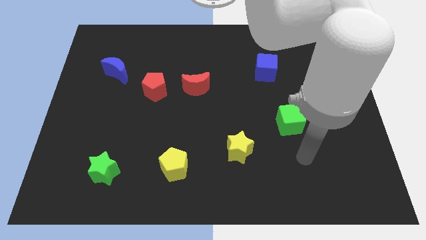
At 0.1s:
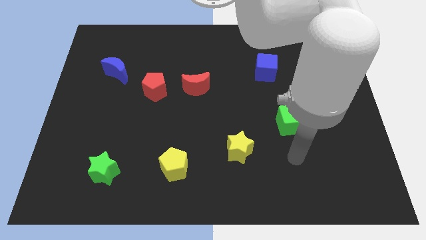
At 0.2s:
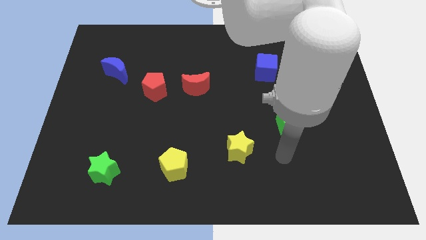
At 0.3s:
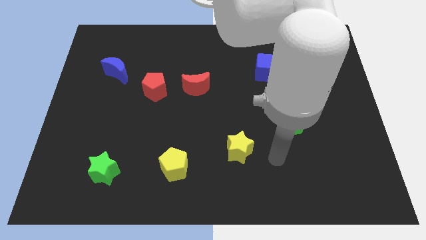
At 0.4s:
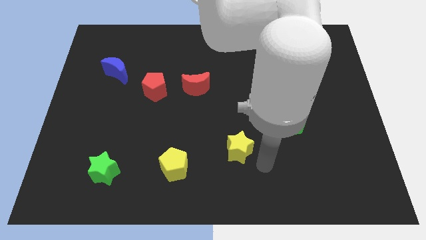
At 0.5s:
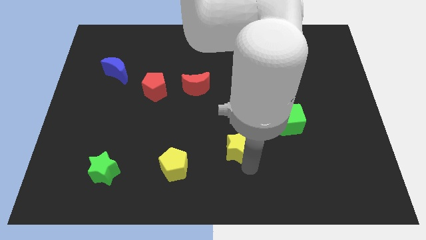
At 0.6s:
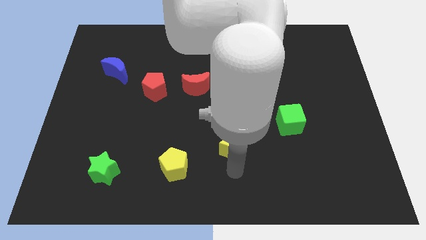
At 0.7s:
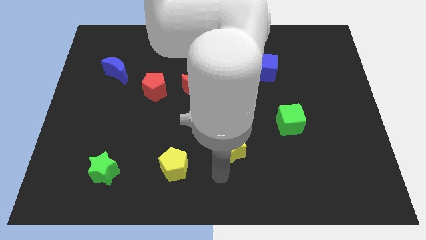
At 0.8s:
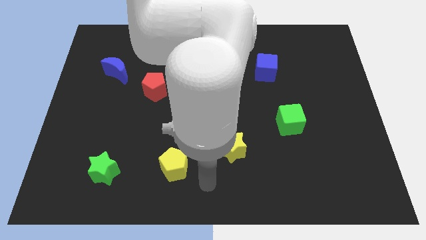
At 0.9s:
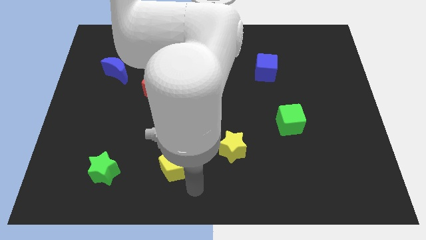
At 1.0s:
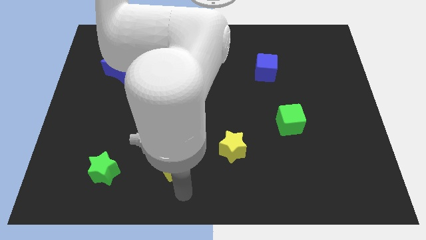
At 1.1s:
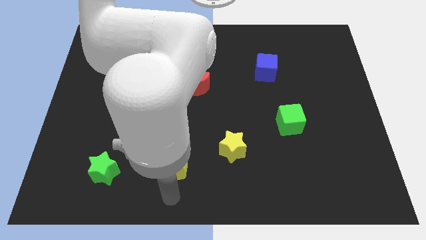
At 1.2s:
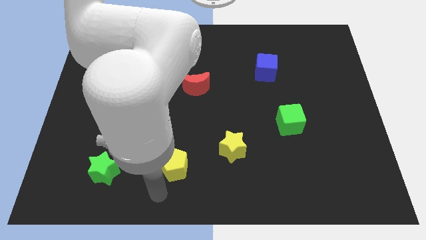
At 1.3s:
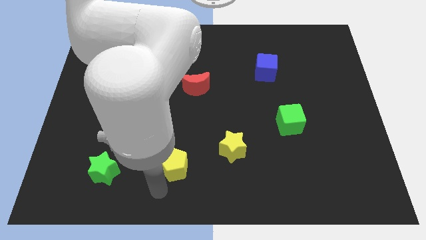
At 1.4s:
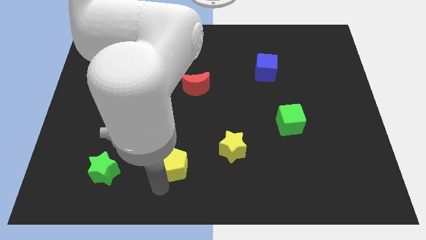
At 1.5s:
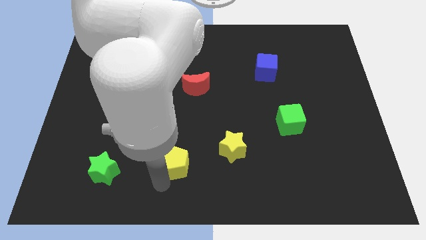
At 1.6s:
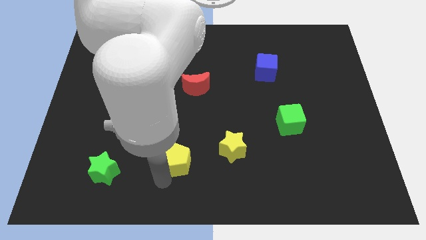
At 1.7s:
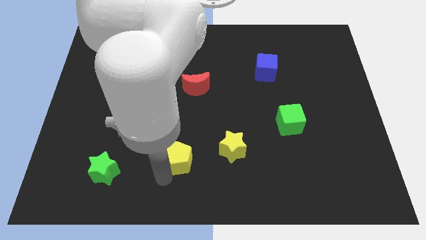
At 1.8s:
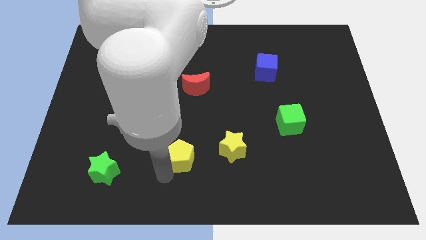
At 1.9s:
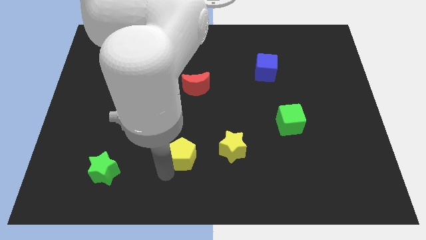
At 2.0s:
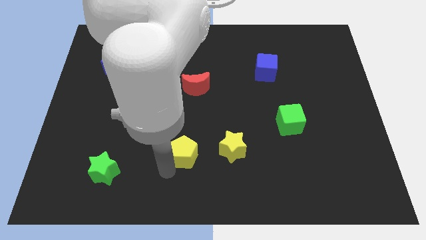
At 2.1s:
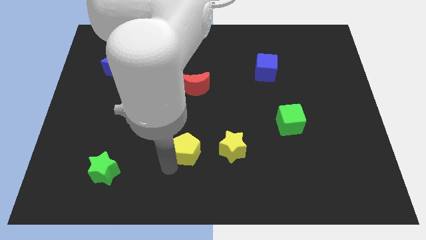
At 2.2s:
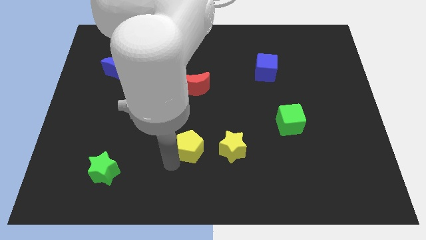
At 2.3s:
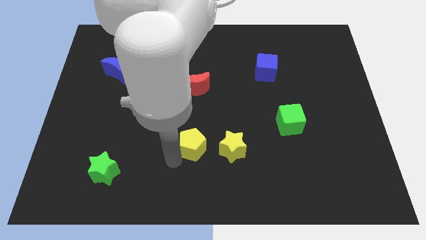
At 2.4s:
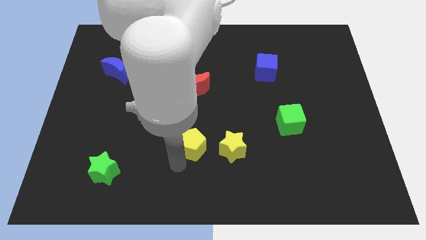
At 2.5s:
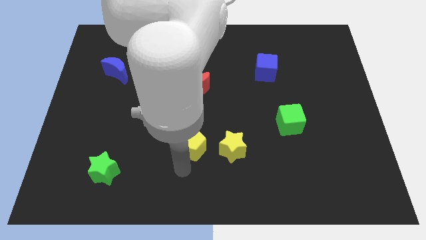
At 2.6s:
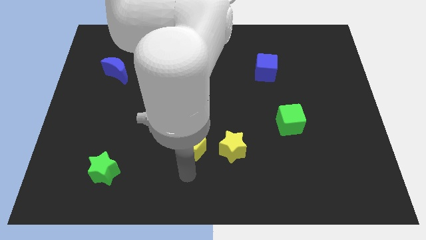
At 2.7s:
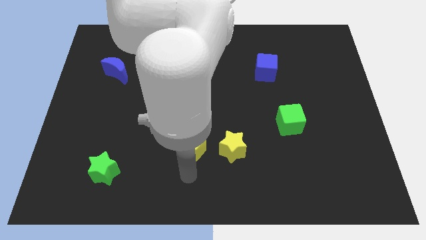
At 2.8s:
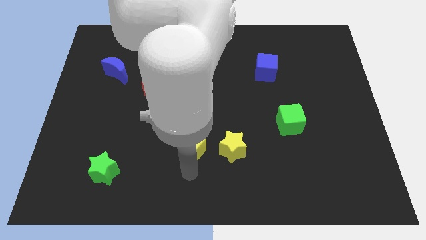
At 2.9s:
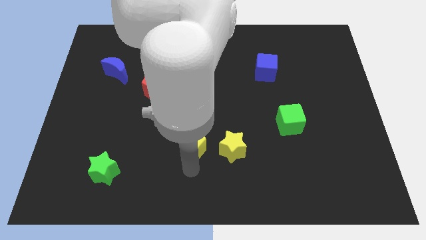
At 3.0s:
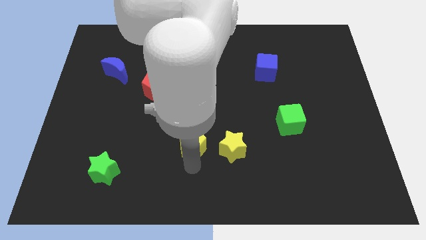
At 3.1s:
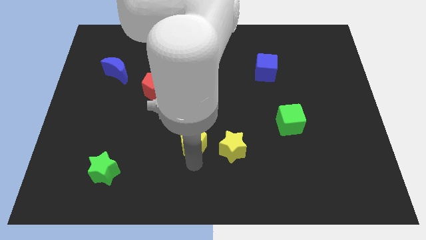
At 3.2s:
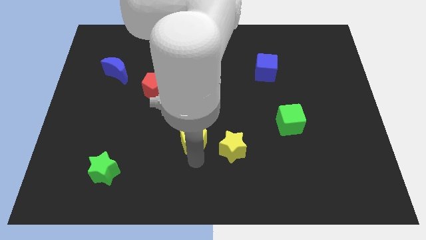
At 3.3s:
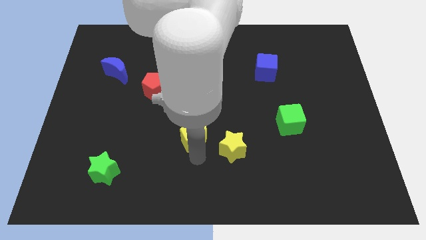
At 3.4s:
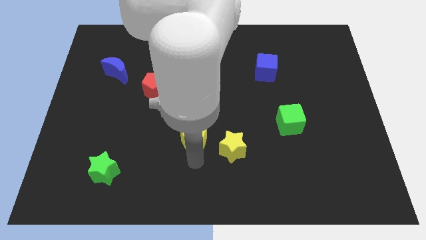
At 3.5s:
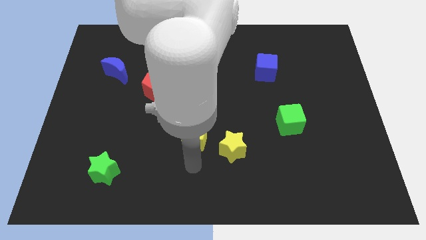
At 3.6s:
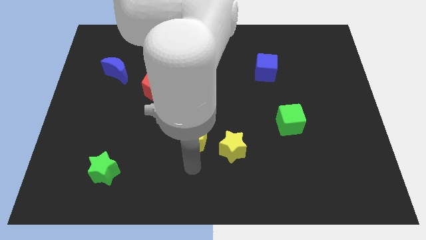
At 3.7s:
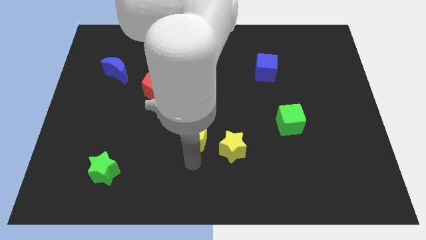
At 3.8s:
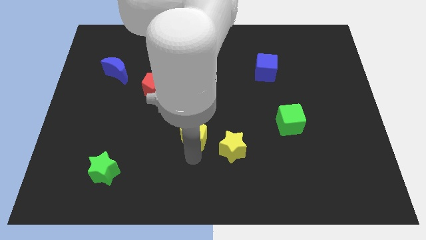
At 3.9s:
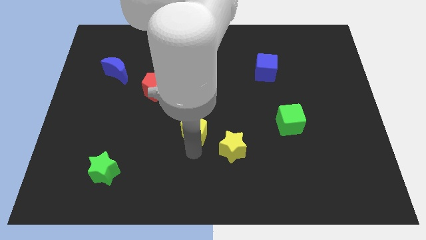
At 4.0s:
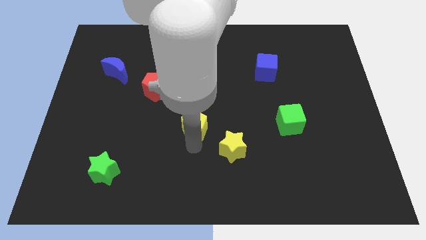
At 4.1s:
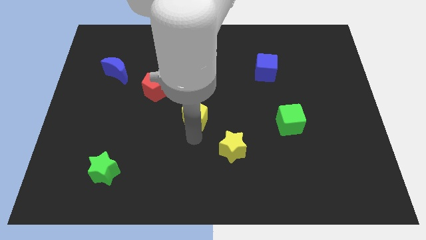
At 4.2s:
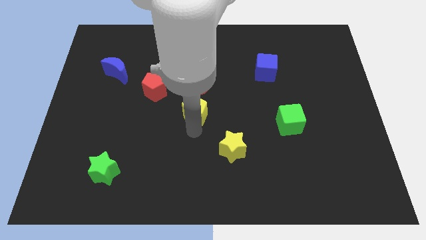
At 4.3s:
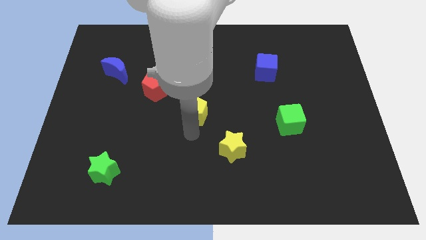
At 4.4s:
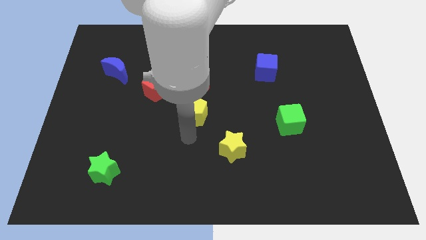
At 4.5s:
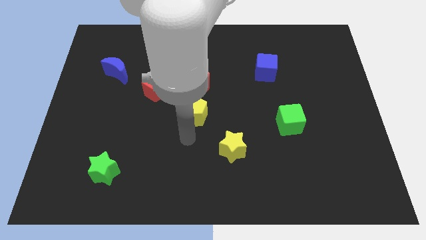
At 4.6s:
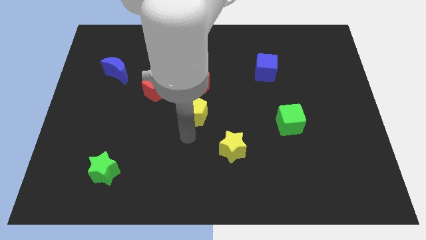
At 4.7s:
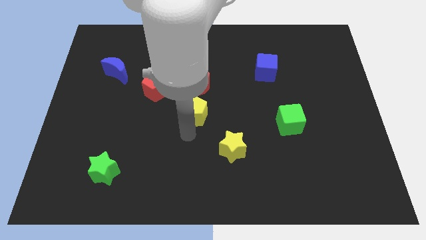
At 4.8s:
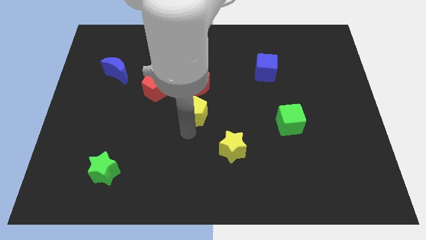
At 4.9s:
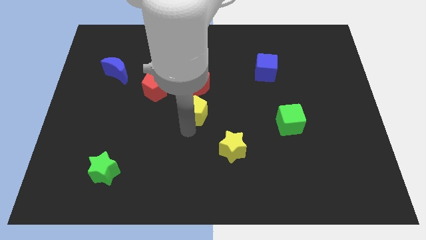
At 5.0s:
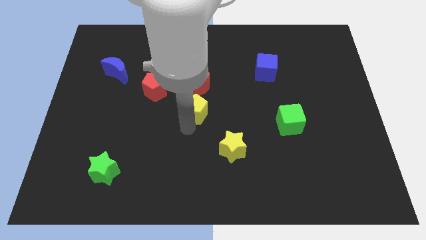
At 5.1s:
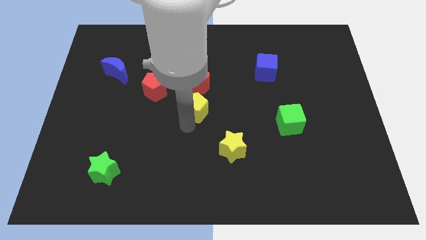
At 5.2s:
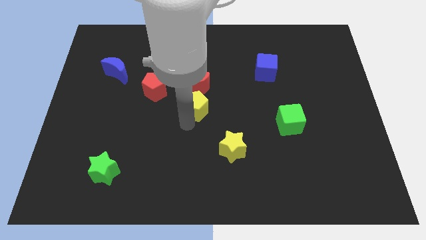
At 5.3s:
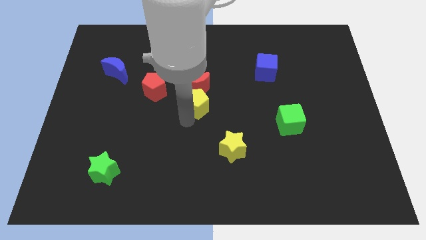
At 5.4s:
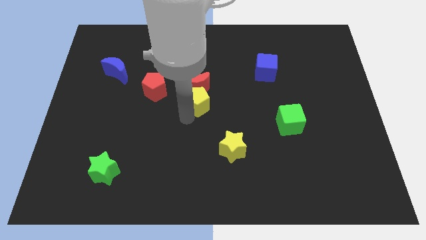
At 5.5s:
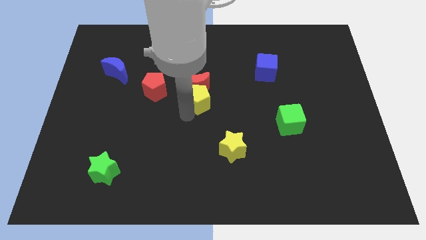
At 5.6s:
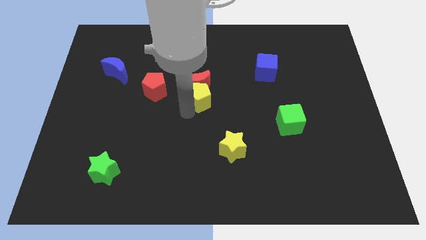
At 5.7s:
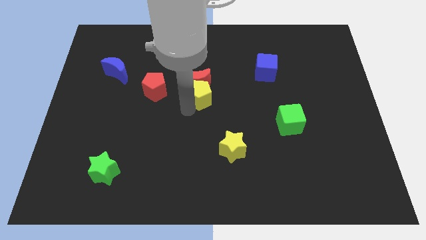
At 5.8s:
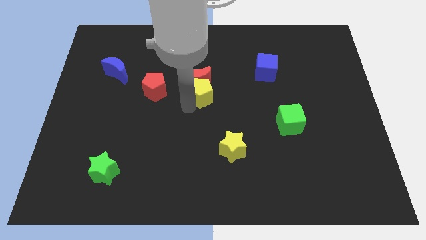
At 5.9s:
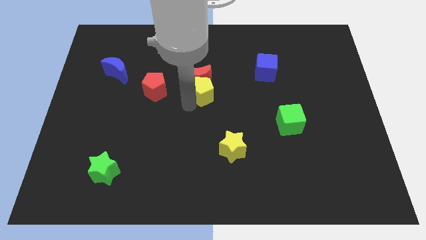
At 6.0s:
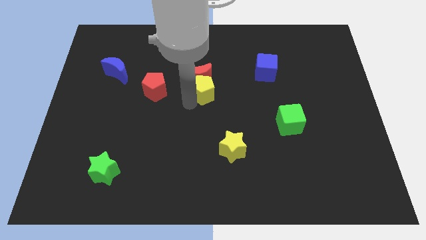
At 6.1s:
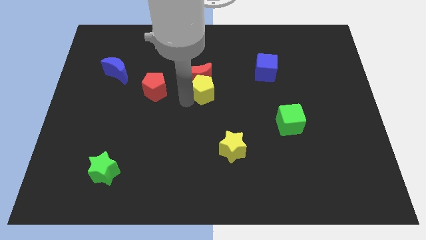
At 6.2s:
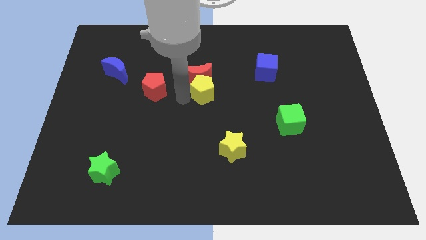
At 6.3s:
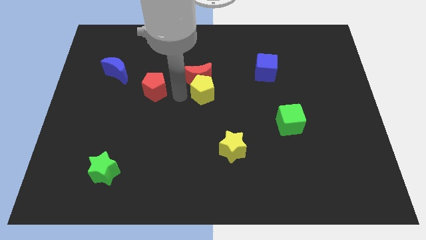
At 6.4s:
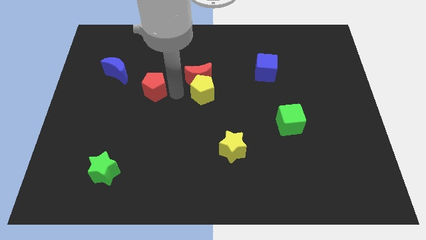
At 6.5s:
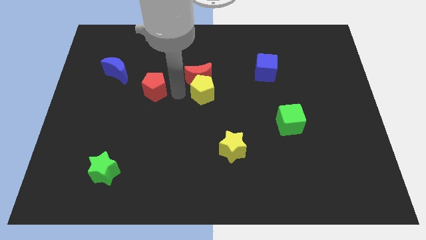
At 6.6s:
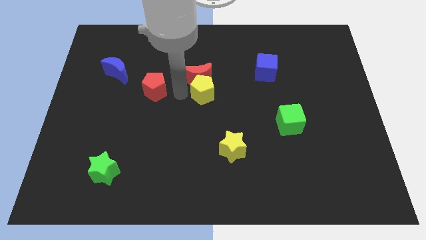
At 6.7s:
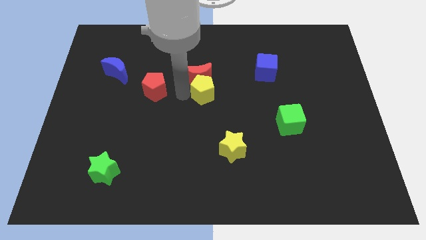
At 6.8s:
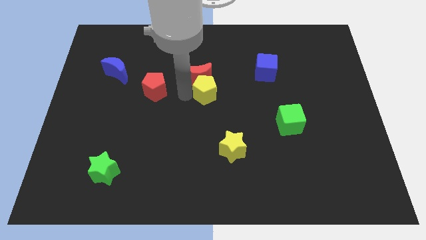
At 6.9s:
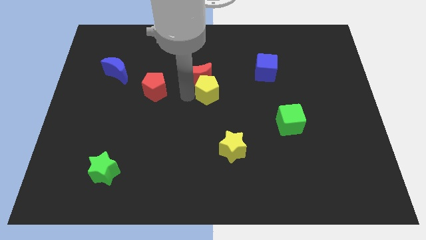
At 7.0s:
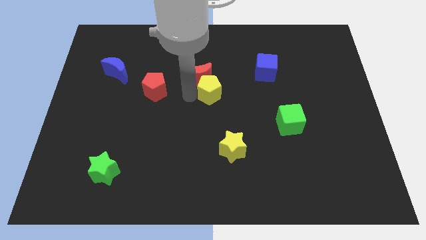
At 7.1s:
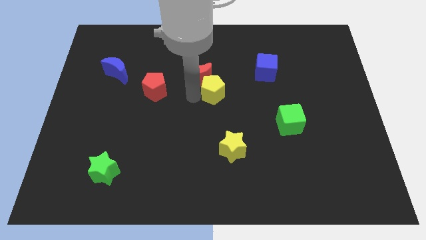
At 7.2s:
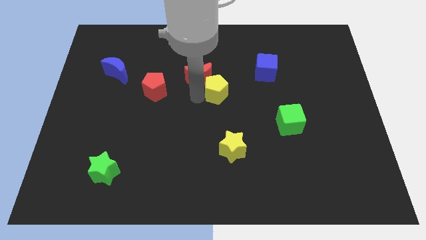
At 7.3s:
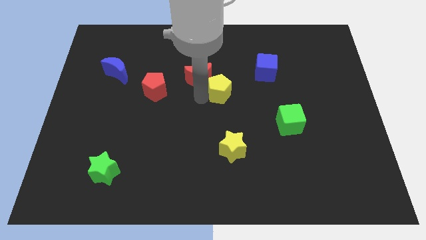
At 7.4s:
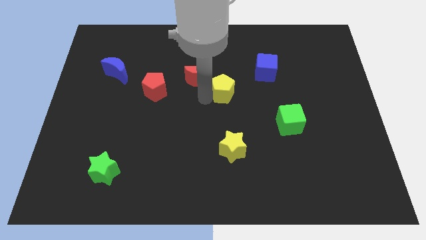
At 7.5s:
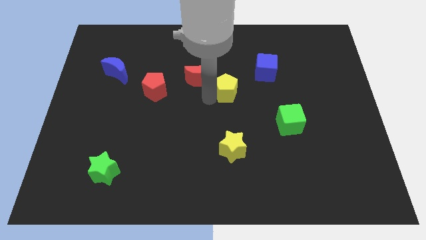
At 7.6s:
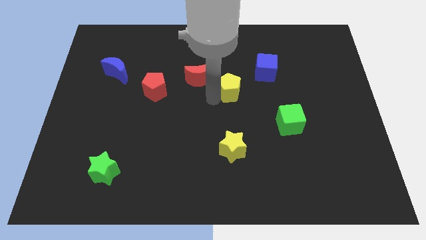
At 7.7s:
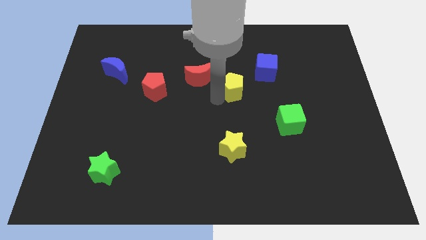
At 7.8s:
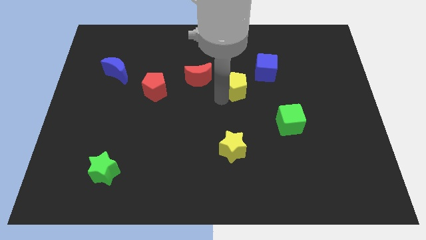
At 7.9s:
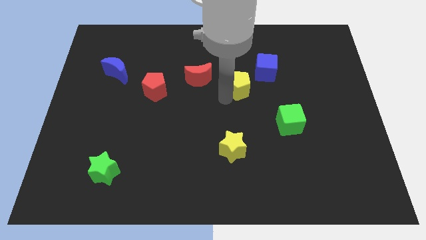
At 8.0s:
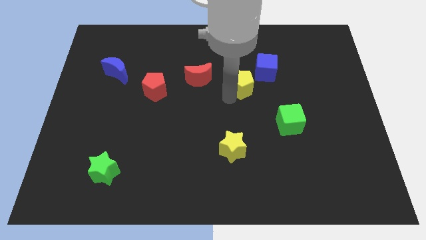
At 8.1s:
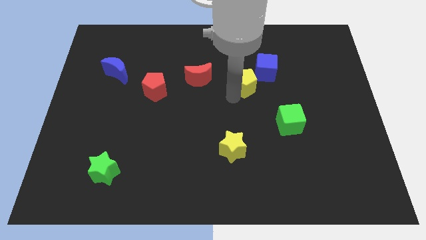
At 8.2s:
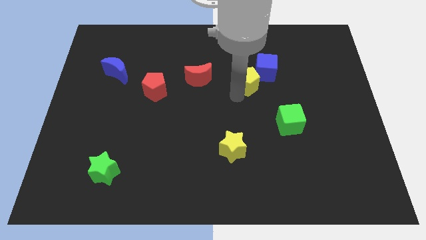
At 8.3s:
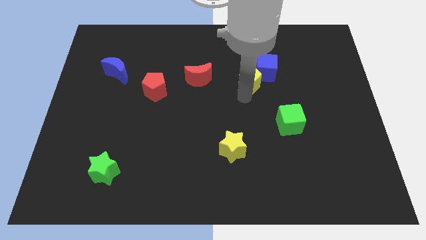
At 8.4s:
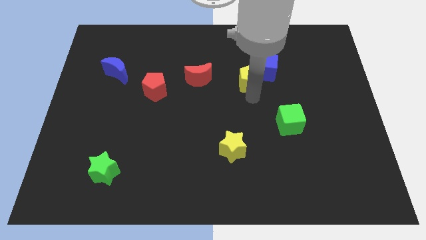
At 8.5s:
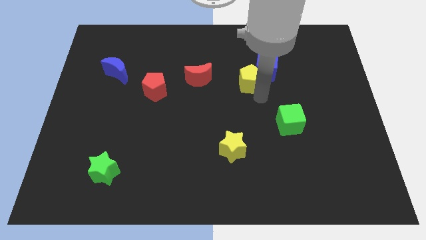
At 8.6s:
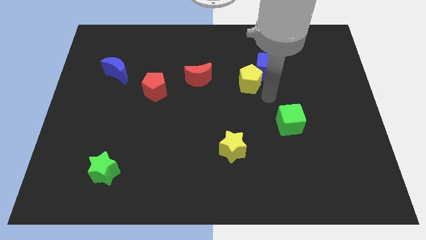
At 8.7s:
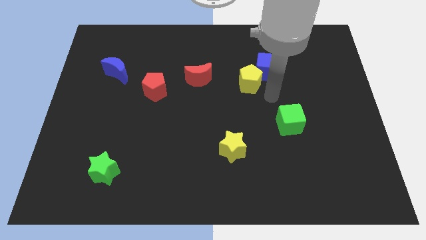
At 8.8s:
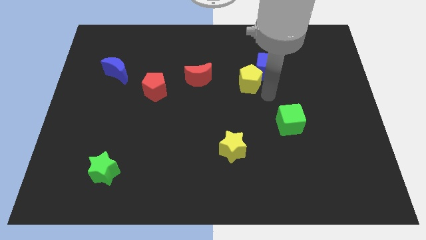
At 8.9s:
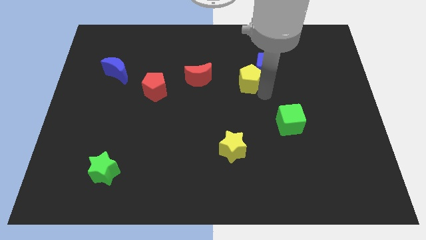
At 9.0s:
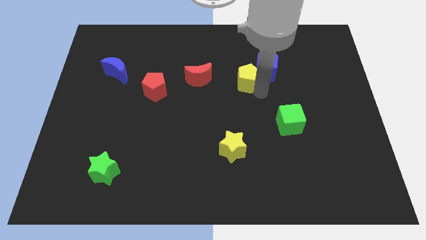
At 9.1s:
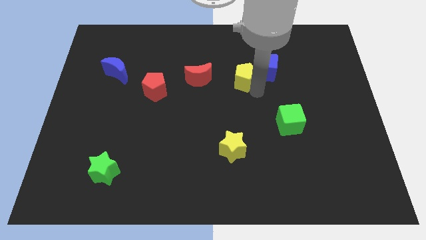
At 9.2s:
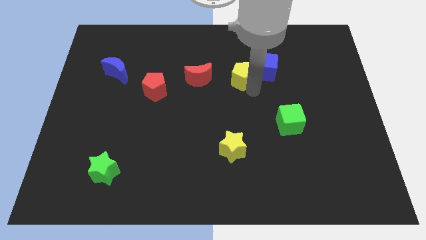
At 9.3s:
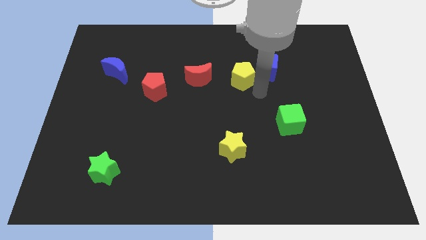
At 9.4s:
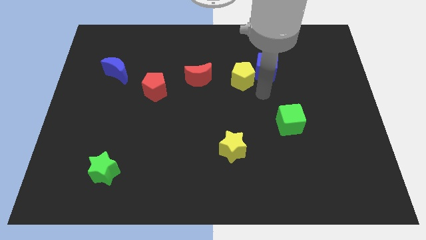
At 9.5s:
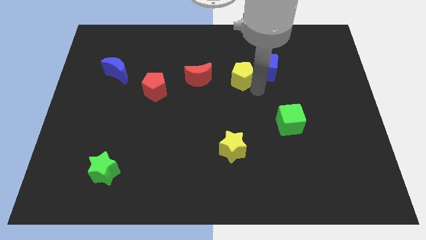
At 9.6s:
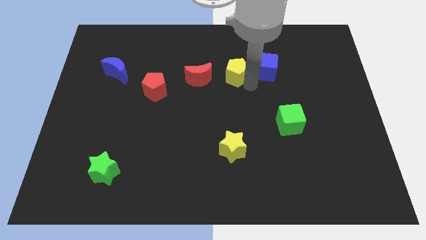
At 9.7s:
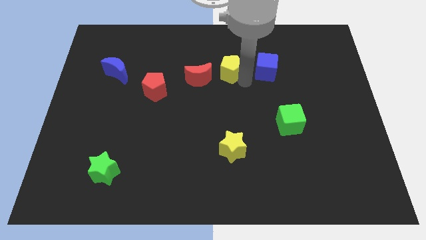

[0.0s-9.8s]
slide the yellow pentagon to the top right of the red moon
